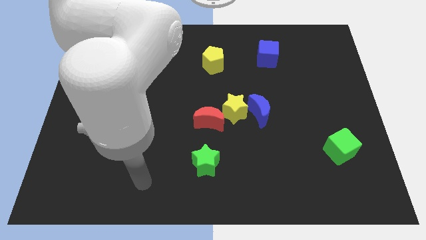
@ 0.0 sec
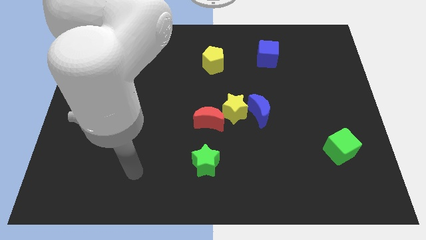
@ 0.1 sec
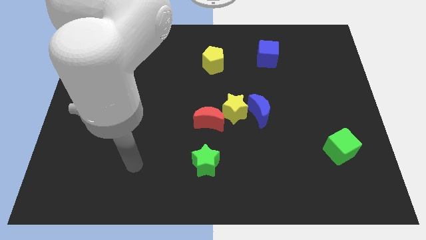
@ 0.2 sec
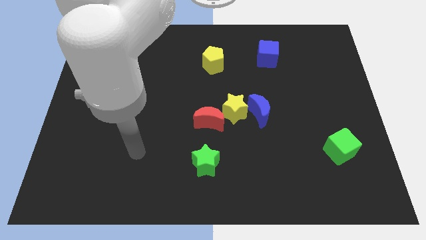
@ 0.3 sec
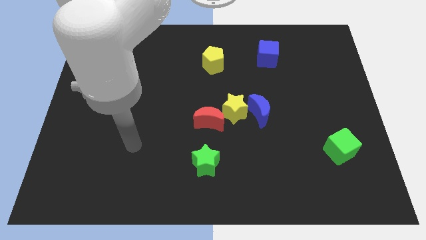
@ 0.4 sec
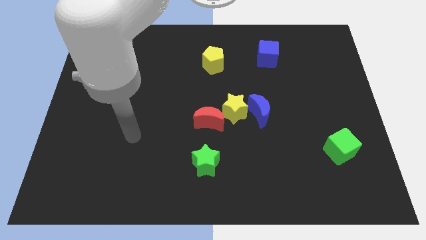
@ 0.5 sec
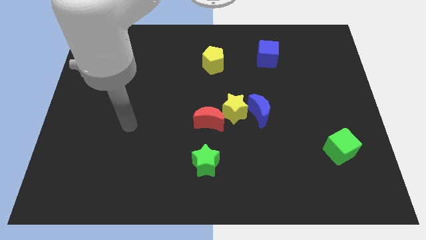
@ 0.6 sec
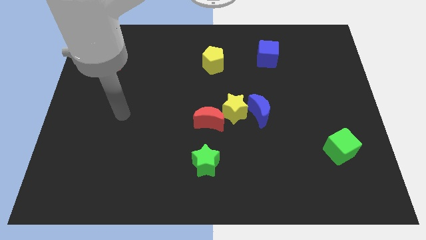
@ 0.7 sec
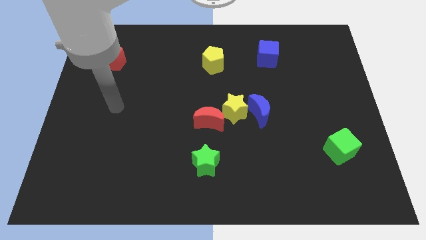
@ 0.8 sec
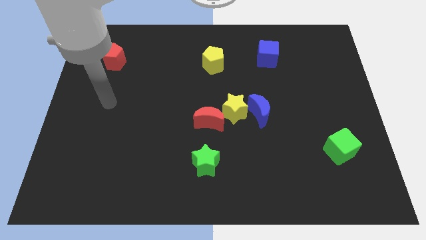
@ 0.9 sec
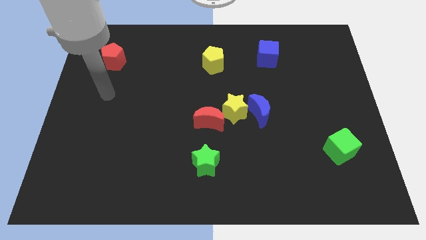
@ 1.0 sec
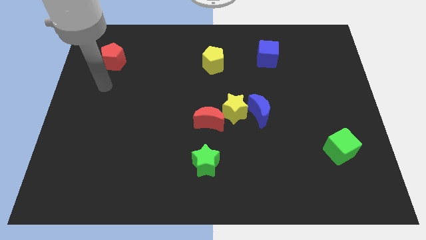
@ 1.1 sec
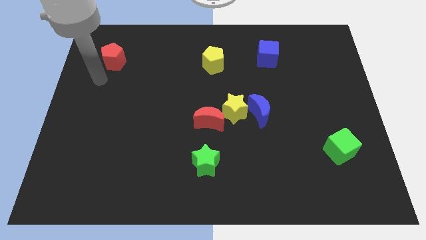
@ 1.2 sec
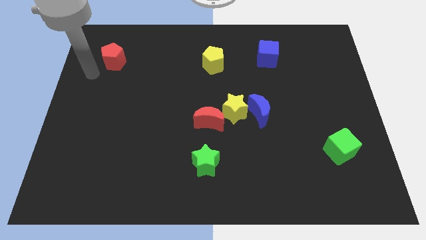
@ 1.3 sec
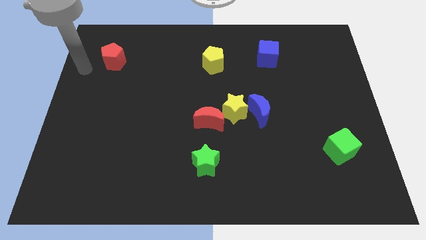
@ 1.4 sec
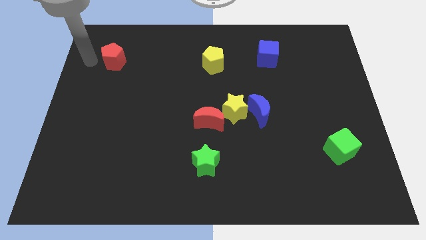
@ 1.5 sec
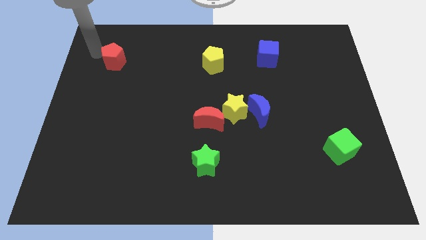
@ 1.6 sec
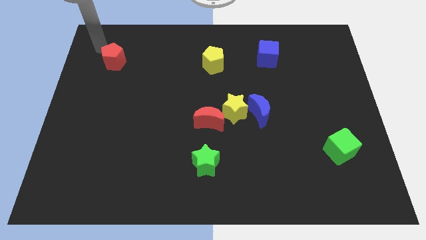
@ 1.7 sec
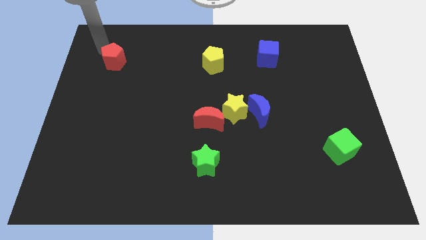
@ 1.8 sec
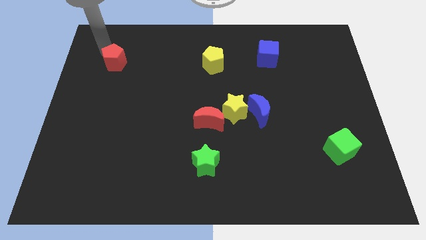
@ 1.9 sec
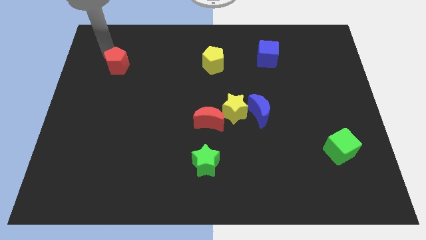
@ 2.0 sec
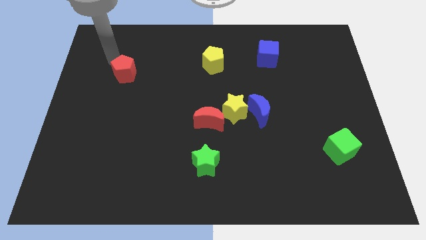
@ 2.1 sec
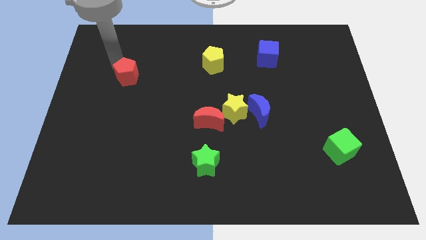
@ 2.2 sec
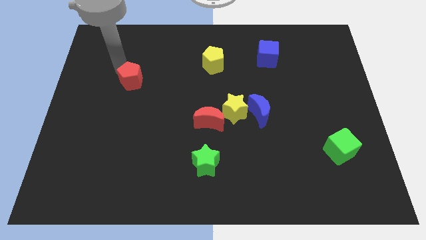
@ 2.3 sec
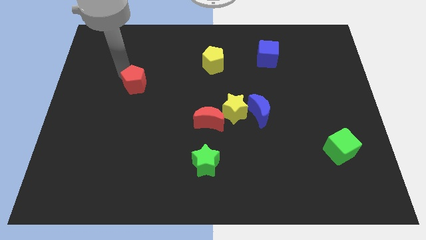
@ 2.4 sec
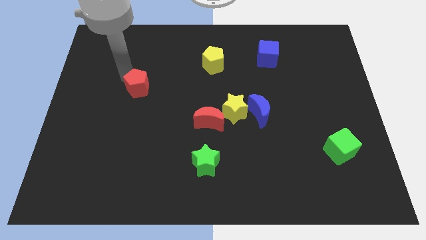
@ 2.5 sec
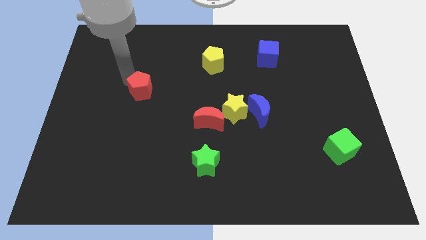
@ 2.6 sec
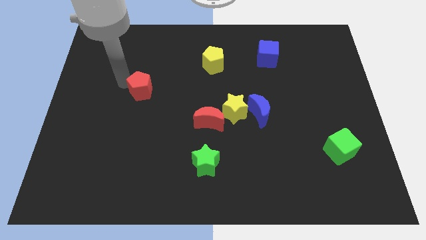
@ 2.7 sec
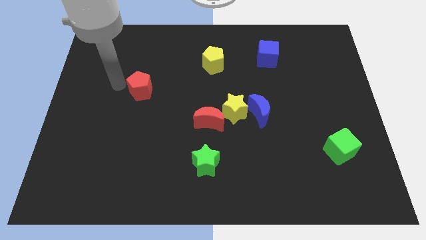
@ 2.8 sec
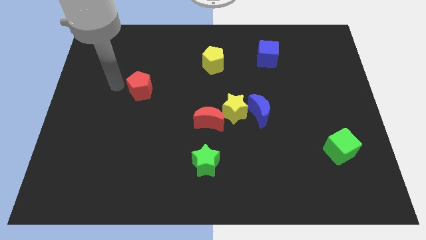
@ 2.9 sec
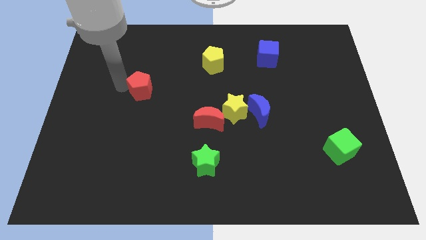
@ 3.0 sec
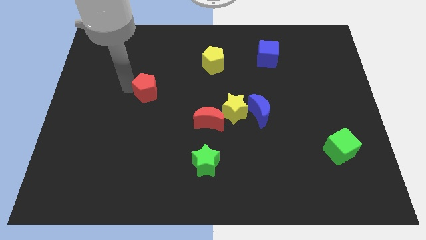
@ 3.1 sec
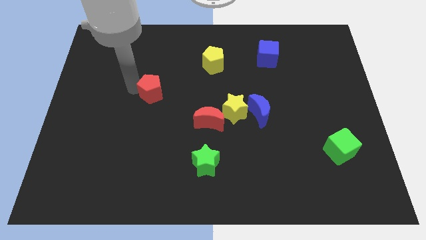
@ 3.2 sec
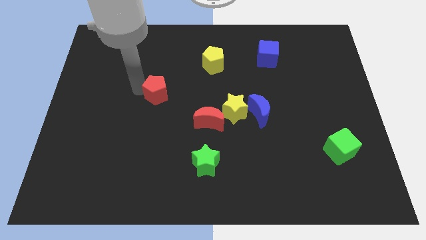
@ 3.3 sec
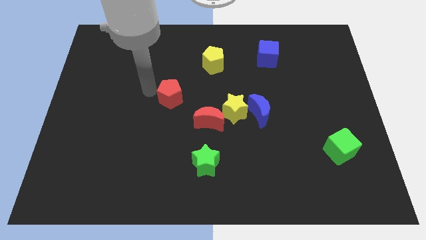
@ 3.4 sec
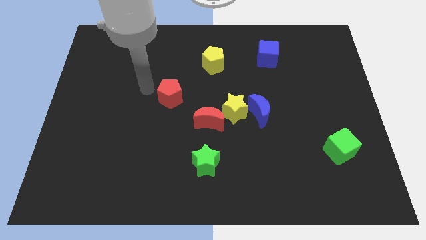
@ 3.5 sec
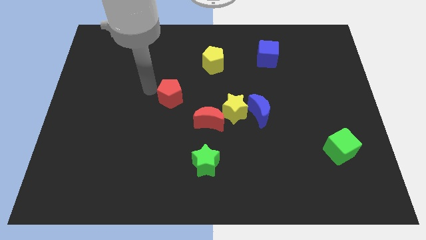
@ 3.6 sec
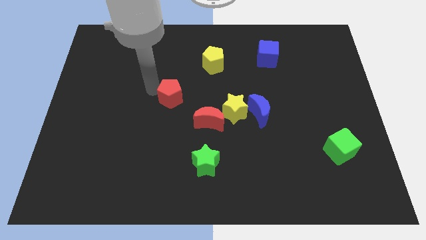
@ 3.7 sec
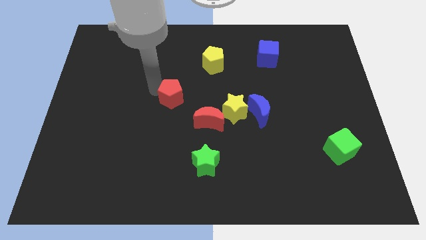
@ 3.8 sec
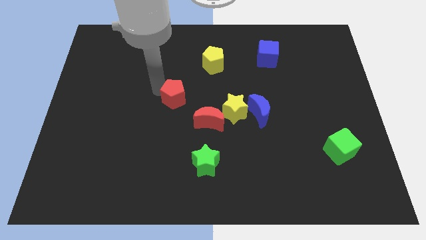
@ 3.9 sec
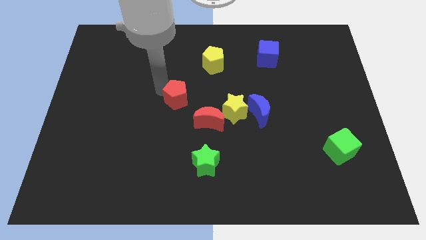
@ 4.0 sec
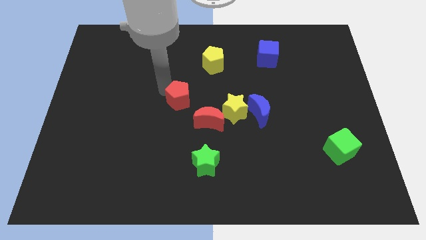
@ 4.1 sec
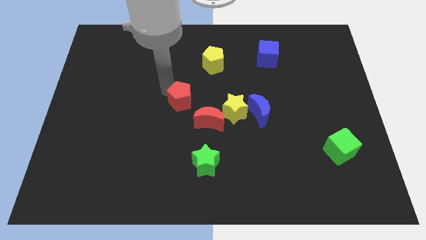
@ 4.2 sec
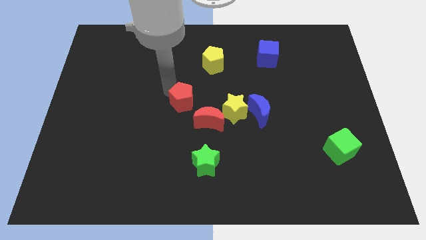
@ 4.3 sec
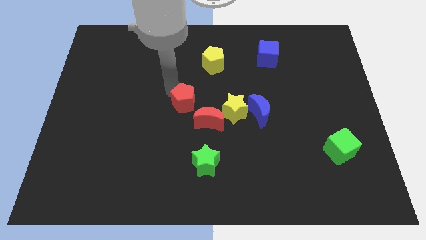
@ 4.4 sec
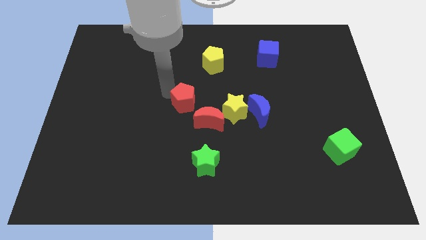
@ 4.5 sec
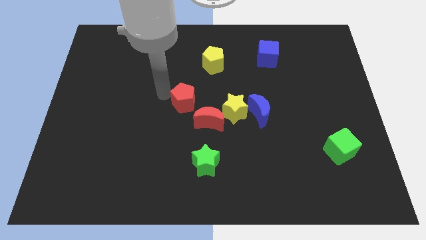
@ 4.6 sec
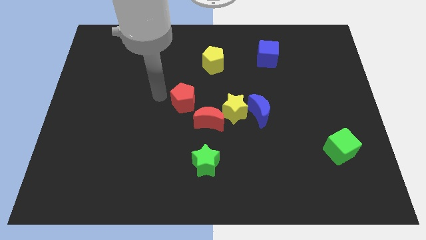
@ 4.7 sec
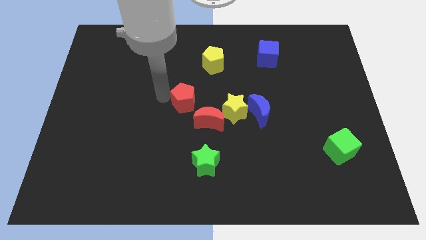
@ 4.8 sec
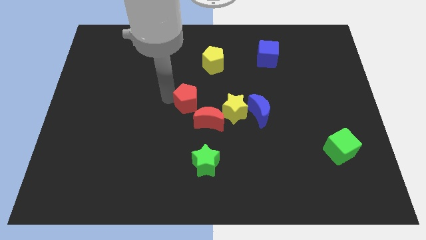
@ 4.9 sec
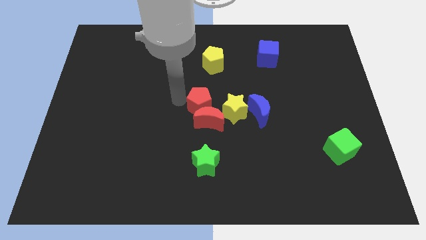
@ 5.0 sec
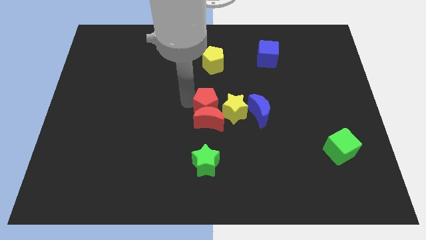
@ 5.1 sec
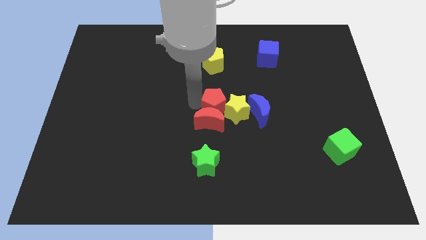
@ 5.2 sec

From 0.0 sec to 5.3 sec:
slide the red pentagon close to the yellow star

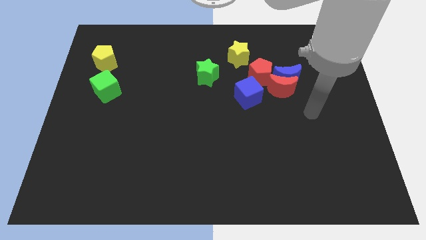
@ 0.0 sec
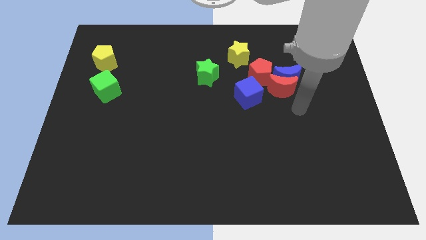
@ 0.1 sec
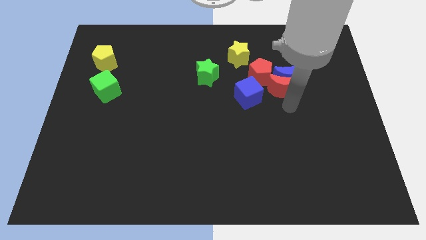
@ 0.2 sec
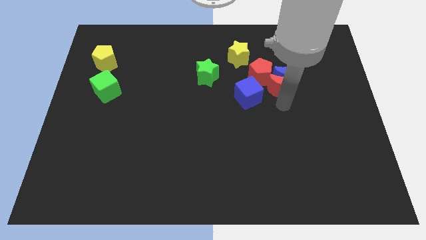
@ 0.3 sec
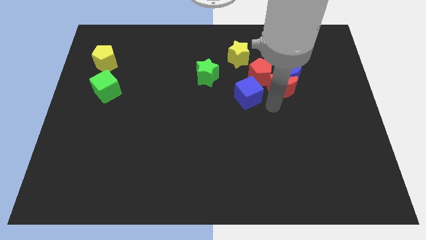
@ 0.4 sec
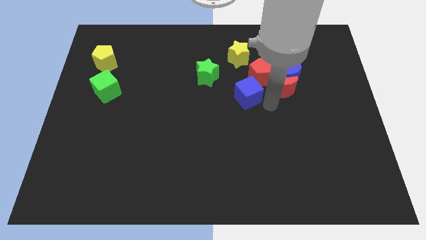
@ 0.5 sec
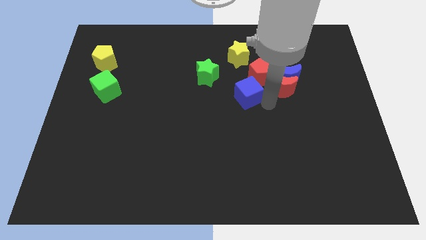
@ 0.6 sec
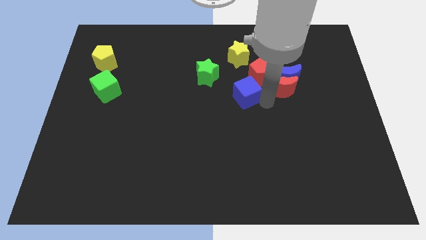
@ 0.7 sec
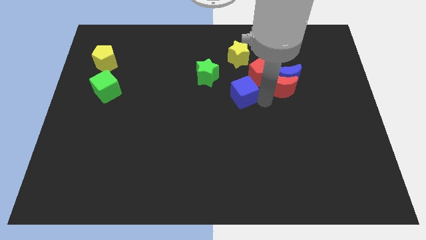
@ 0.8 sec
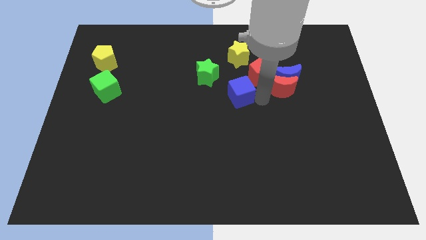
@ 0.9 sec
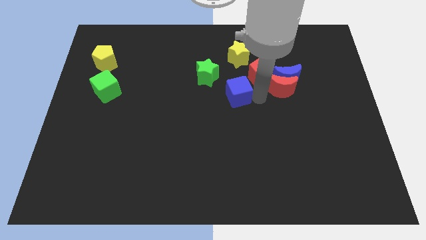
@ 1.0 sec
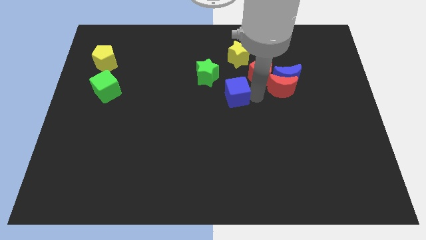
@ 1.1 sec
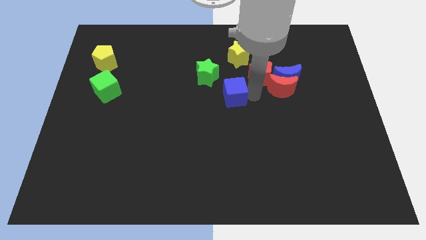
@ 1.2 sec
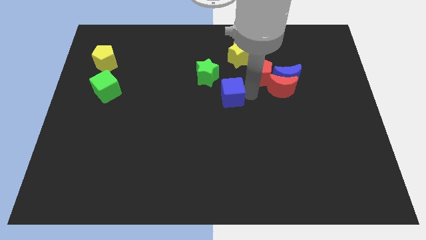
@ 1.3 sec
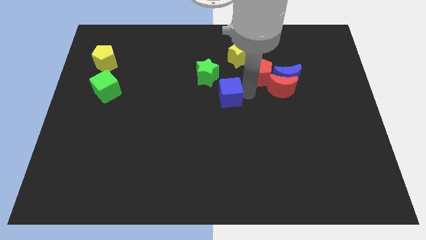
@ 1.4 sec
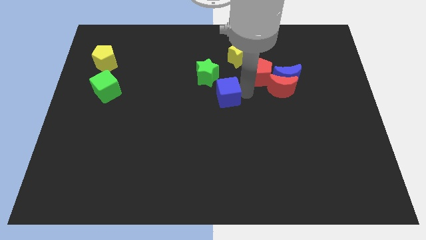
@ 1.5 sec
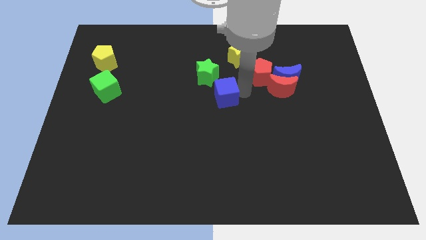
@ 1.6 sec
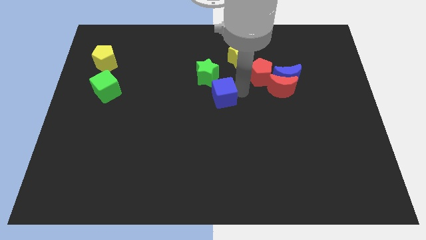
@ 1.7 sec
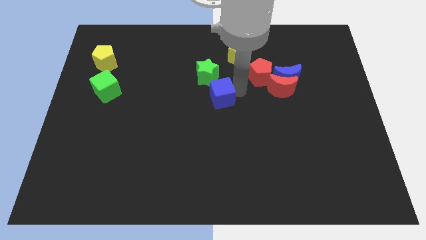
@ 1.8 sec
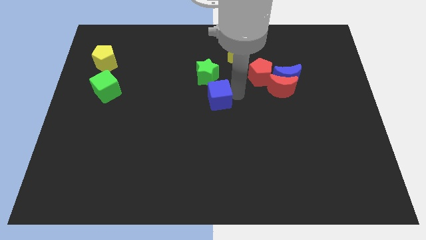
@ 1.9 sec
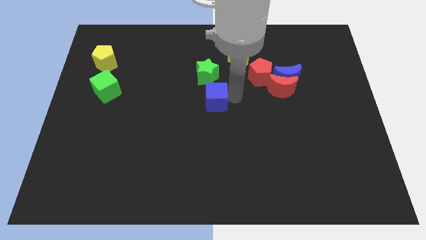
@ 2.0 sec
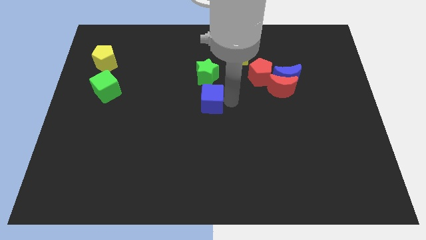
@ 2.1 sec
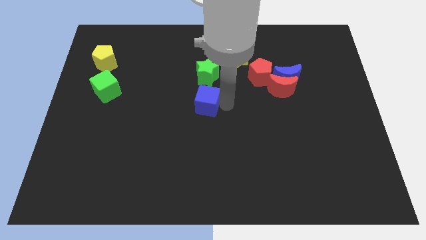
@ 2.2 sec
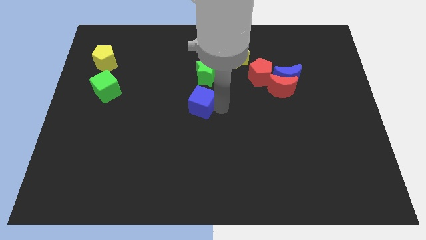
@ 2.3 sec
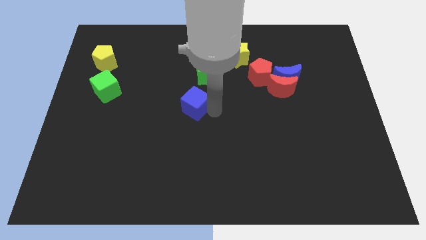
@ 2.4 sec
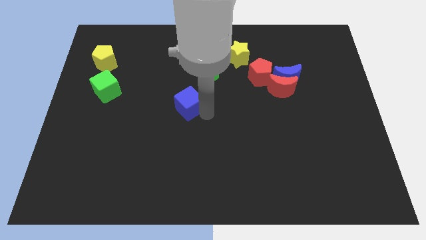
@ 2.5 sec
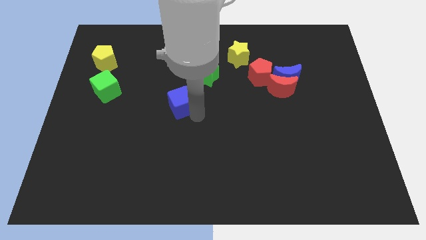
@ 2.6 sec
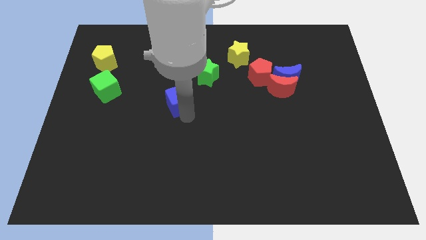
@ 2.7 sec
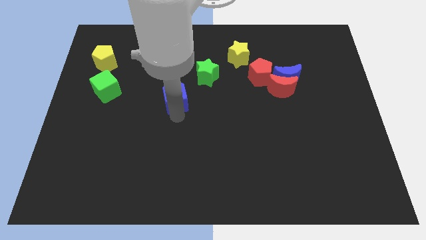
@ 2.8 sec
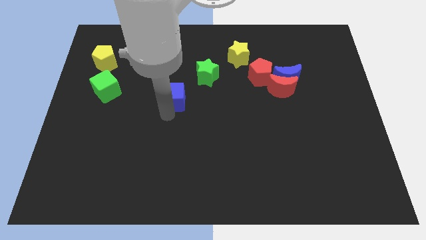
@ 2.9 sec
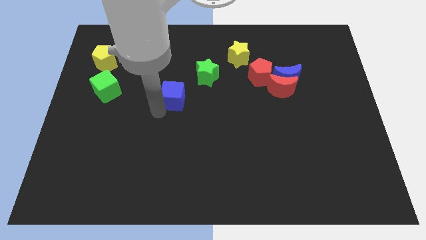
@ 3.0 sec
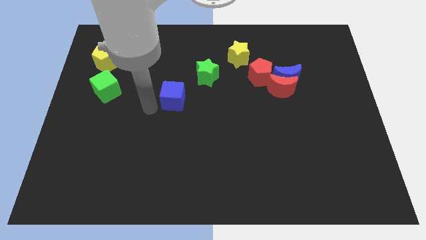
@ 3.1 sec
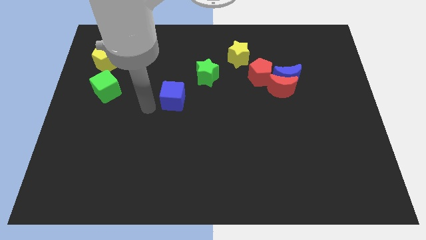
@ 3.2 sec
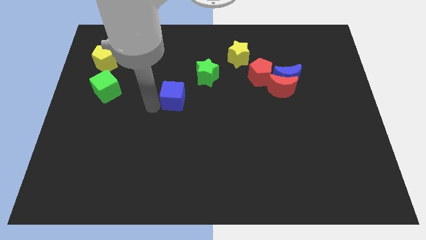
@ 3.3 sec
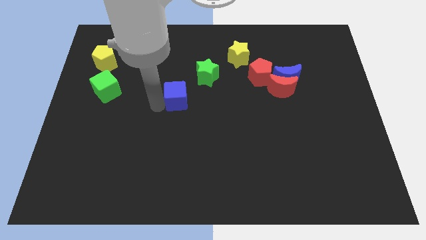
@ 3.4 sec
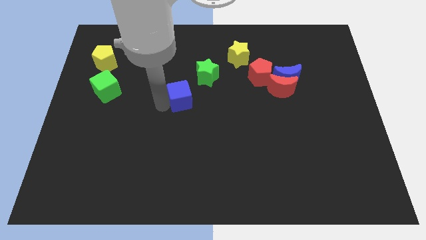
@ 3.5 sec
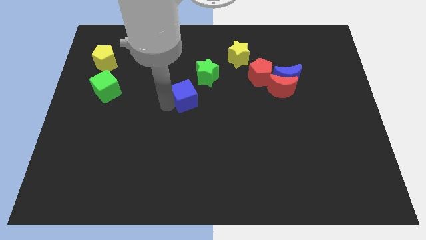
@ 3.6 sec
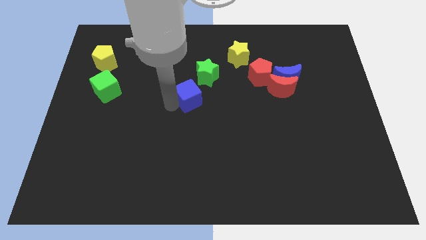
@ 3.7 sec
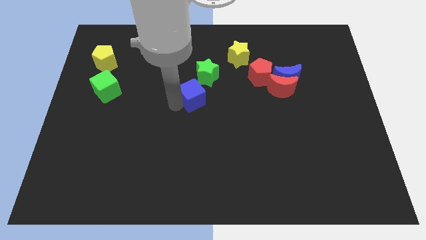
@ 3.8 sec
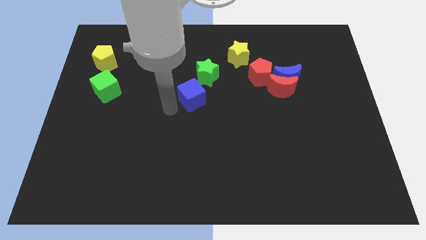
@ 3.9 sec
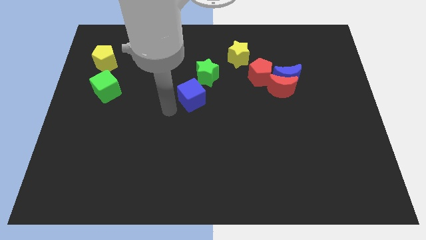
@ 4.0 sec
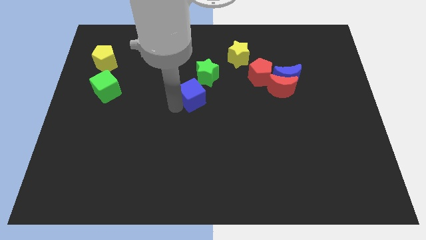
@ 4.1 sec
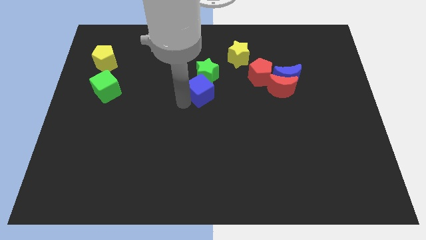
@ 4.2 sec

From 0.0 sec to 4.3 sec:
slide the blue cube next to the green star
